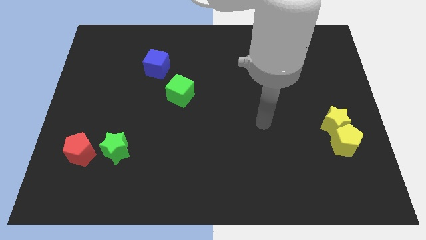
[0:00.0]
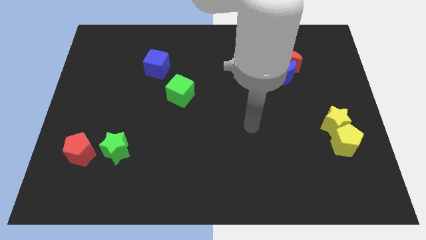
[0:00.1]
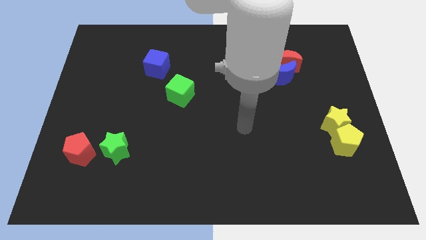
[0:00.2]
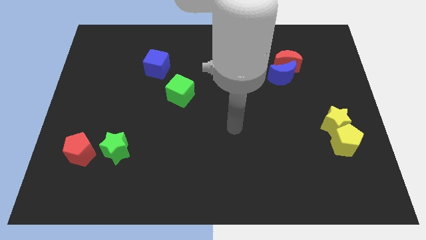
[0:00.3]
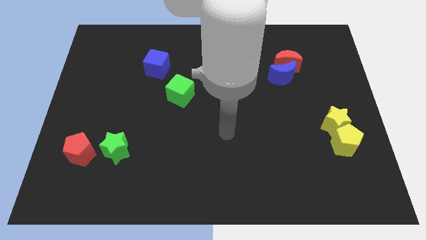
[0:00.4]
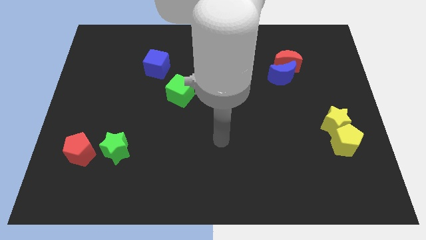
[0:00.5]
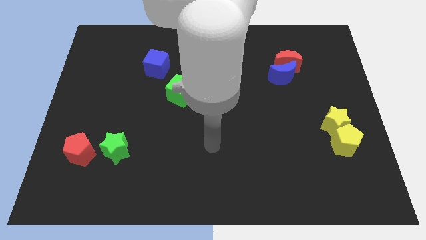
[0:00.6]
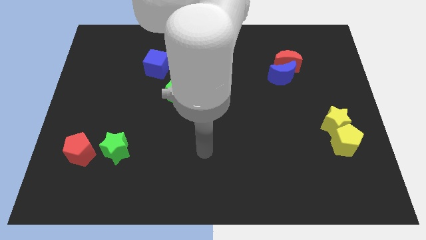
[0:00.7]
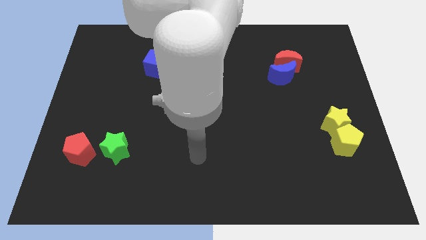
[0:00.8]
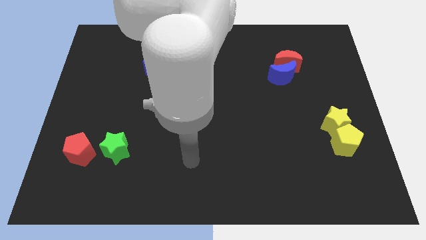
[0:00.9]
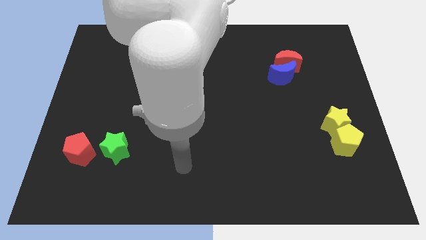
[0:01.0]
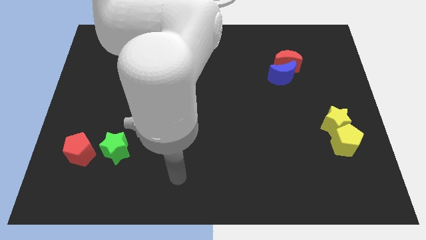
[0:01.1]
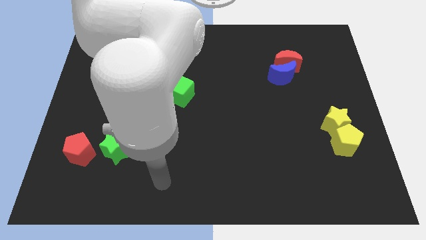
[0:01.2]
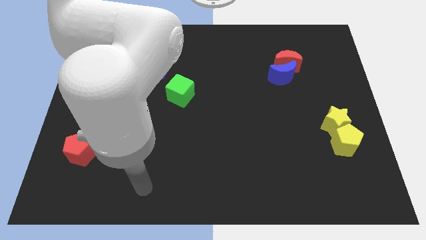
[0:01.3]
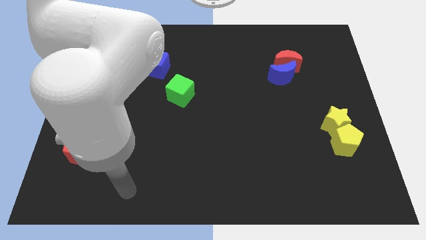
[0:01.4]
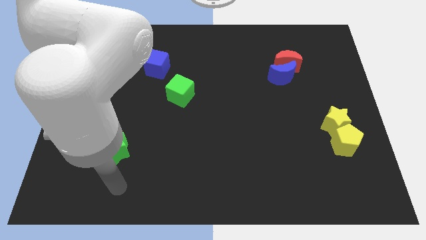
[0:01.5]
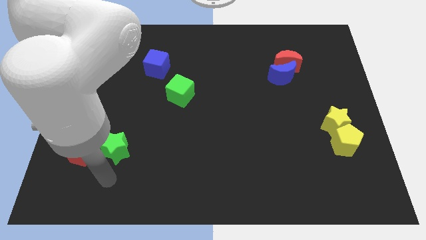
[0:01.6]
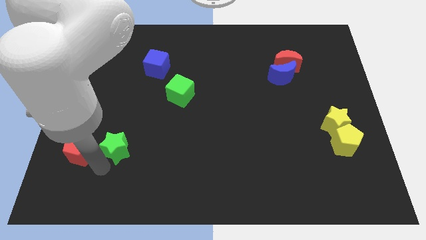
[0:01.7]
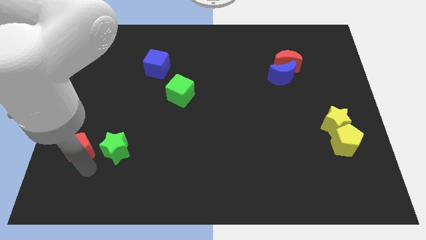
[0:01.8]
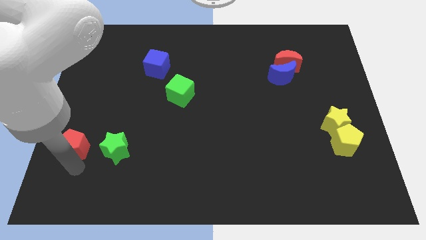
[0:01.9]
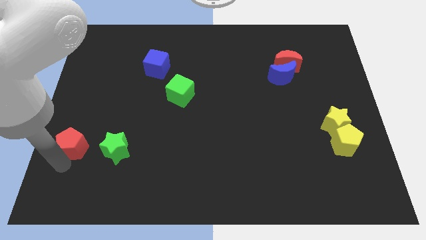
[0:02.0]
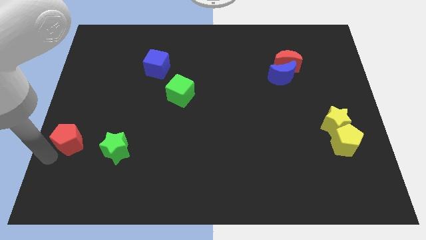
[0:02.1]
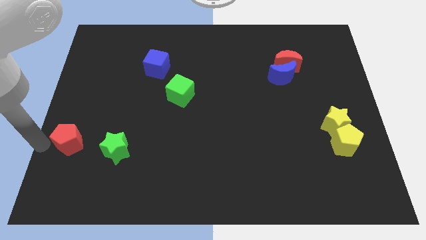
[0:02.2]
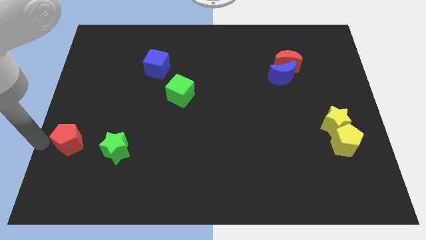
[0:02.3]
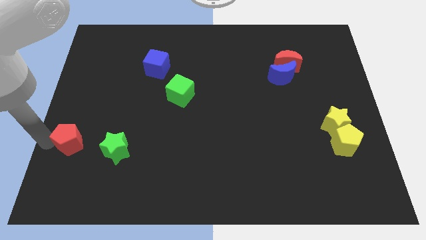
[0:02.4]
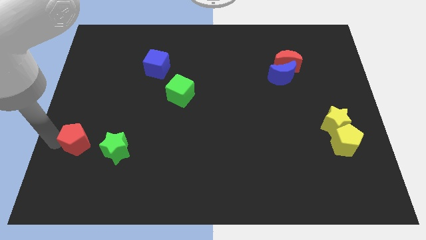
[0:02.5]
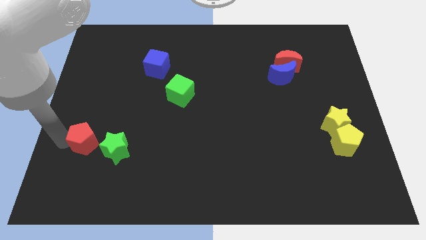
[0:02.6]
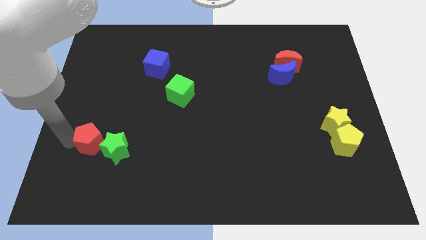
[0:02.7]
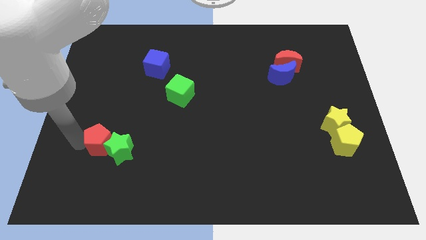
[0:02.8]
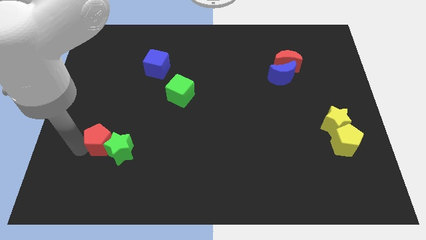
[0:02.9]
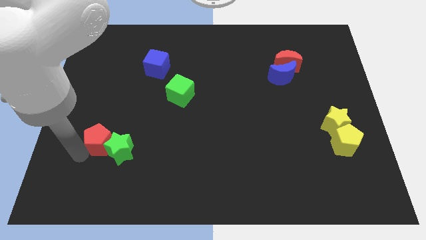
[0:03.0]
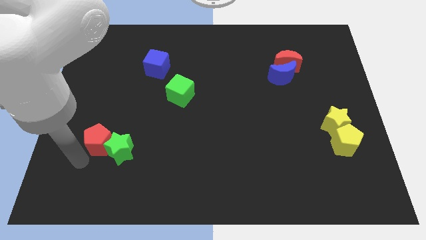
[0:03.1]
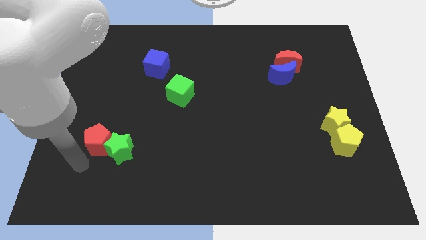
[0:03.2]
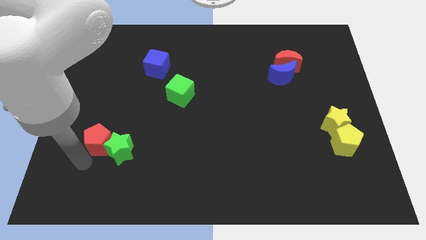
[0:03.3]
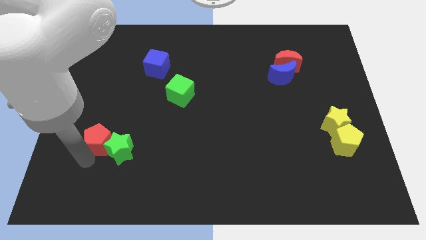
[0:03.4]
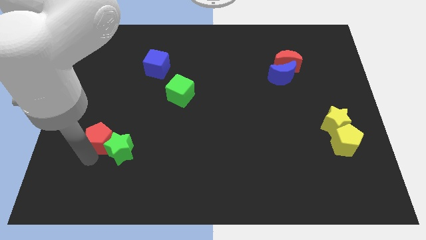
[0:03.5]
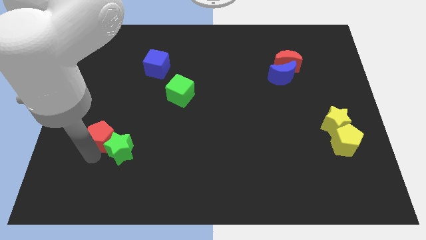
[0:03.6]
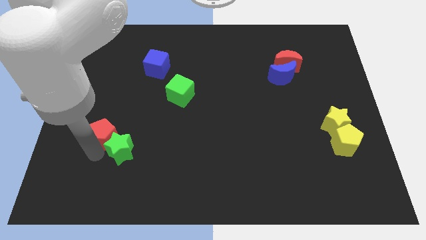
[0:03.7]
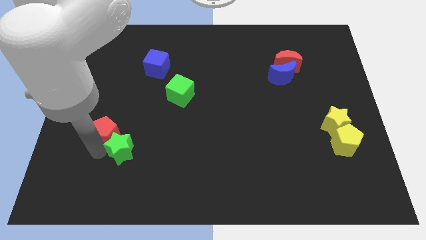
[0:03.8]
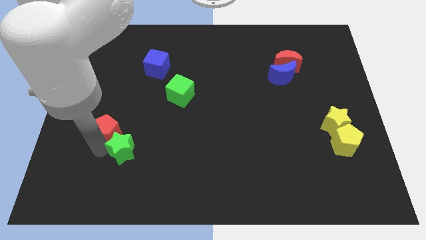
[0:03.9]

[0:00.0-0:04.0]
push the red pentagon a little diagonally upwards and to the right

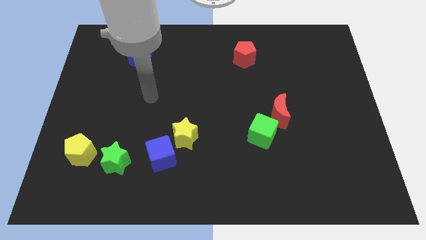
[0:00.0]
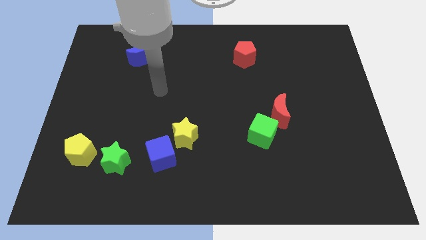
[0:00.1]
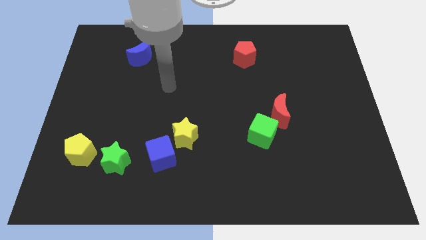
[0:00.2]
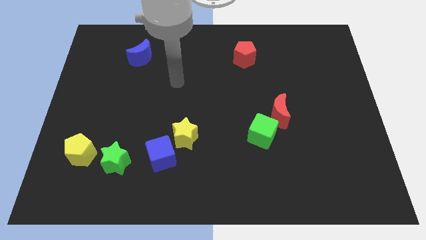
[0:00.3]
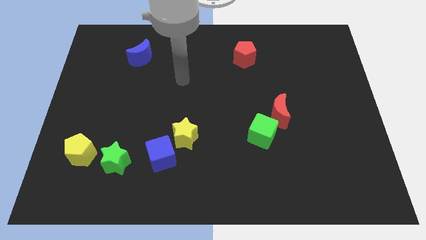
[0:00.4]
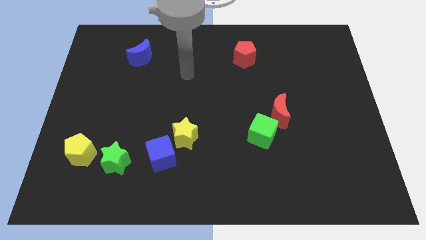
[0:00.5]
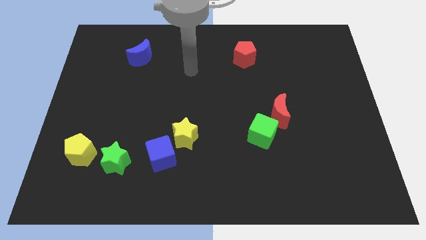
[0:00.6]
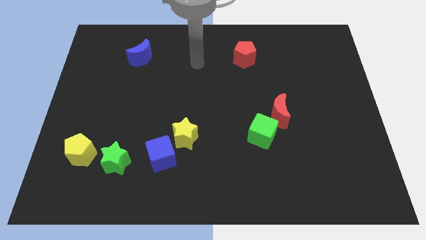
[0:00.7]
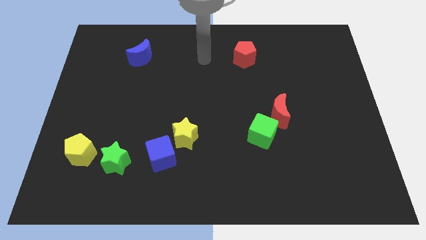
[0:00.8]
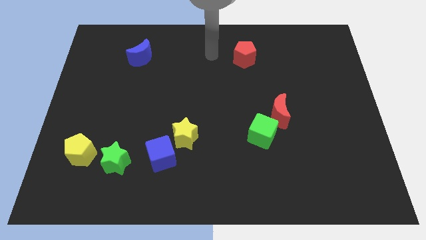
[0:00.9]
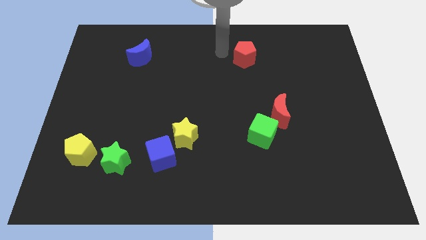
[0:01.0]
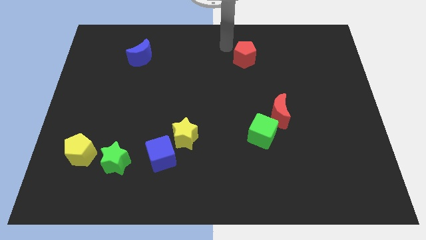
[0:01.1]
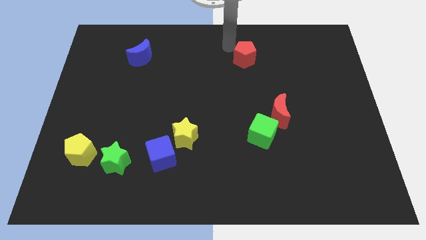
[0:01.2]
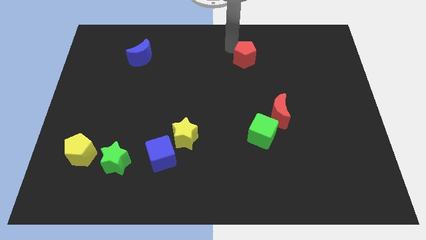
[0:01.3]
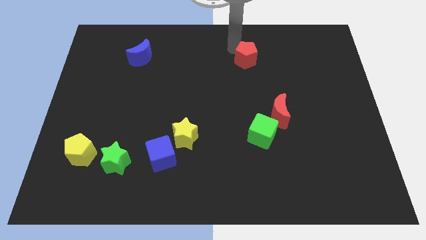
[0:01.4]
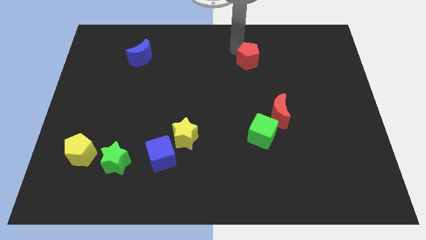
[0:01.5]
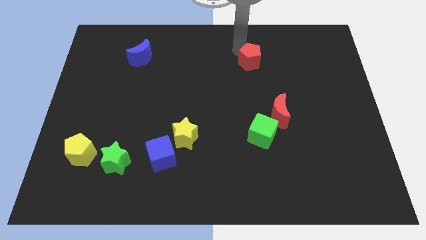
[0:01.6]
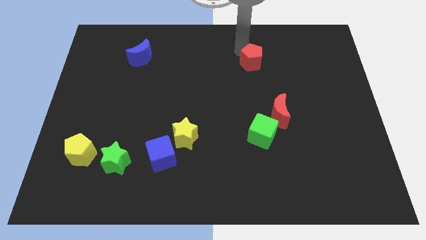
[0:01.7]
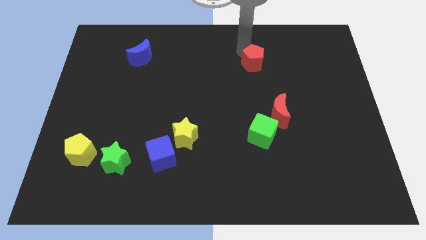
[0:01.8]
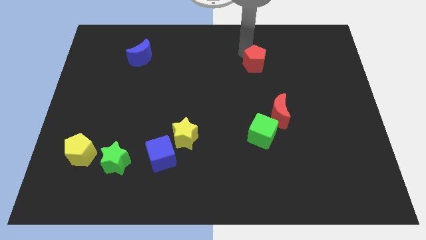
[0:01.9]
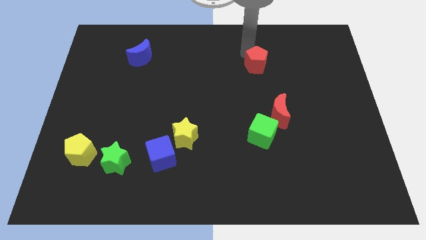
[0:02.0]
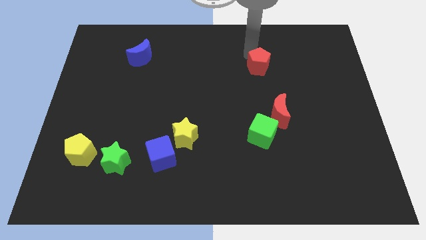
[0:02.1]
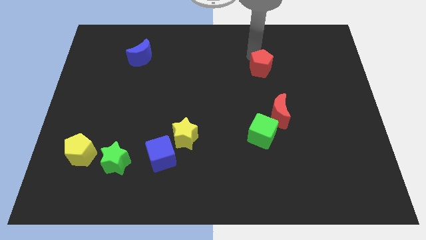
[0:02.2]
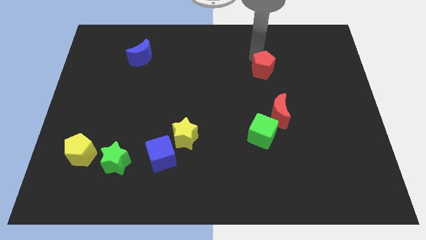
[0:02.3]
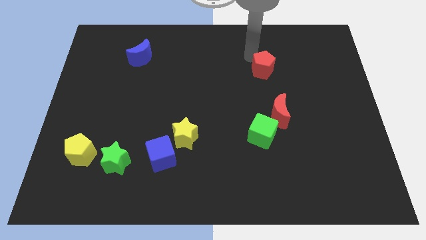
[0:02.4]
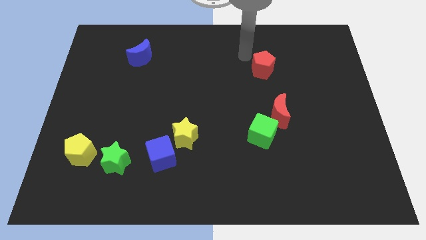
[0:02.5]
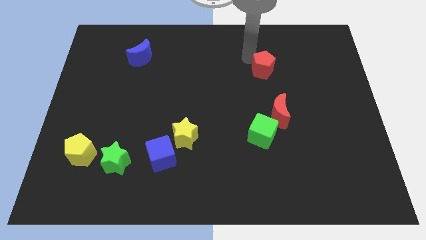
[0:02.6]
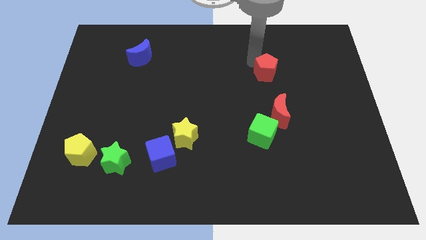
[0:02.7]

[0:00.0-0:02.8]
push the red pentagon diagonally downwards and right somewhat

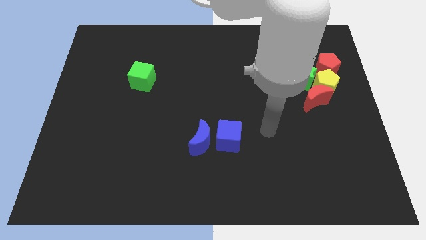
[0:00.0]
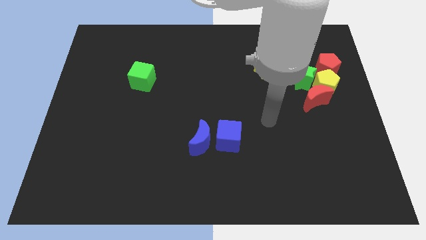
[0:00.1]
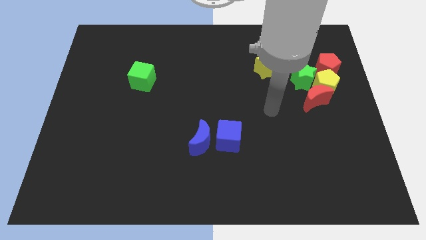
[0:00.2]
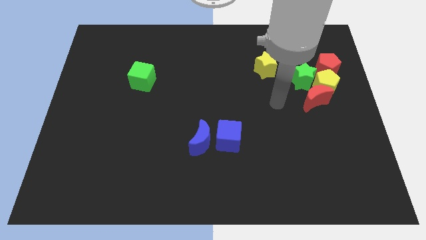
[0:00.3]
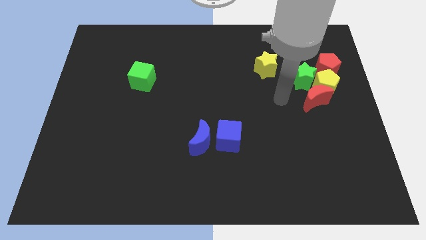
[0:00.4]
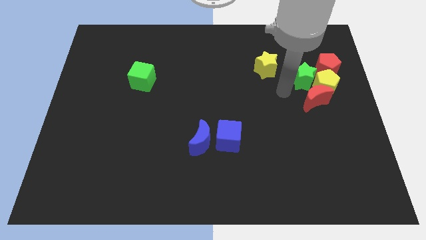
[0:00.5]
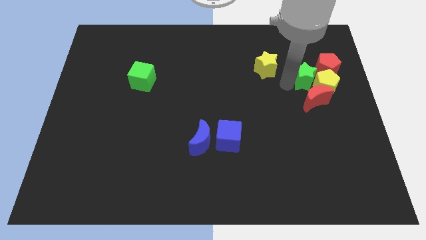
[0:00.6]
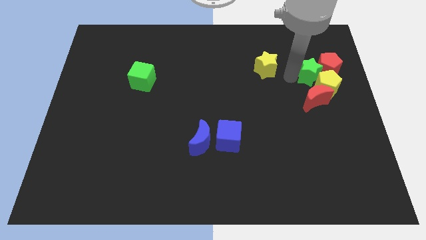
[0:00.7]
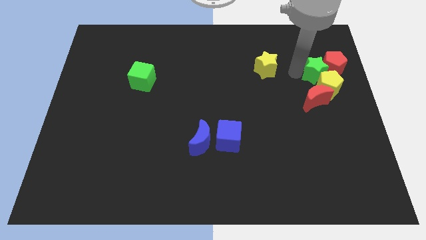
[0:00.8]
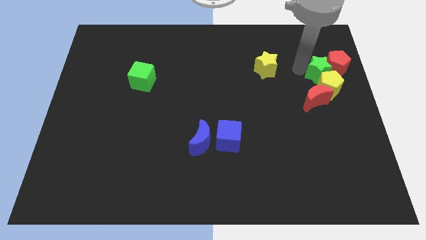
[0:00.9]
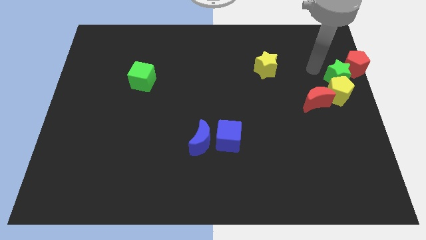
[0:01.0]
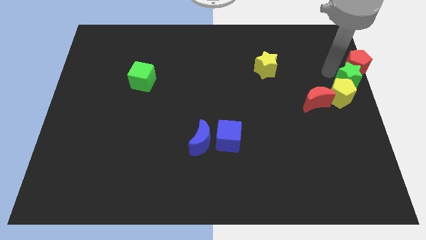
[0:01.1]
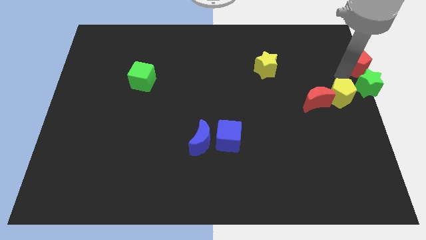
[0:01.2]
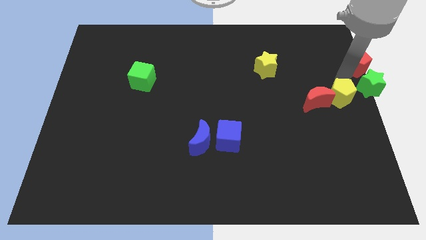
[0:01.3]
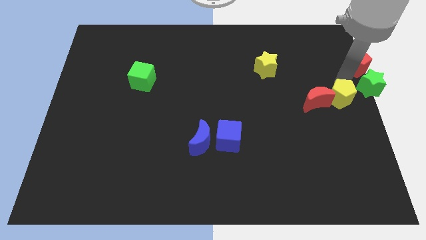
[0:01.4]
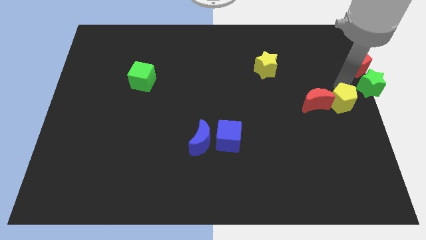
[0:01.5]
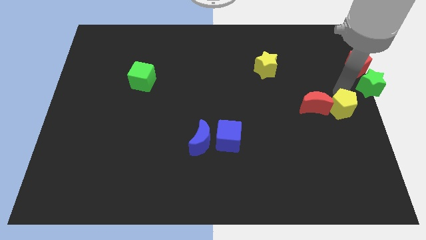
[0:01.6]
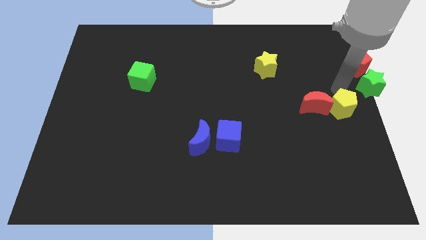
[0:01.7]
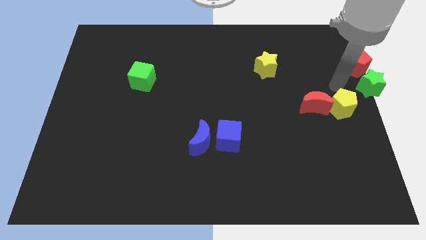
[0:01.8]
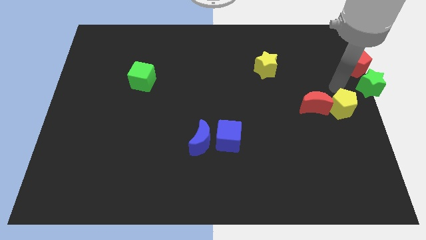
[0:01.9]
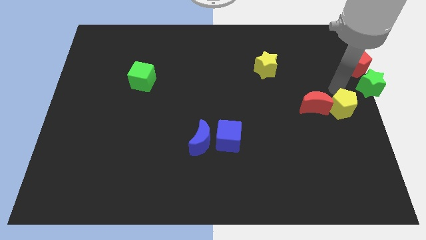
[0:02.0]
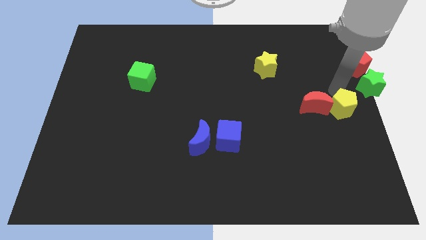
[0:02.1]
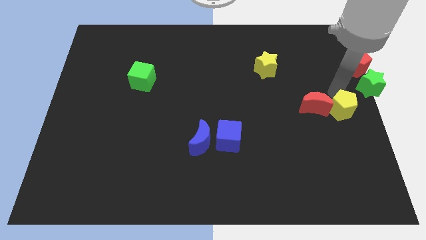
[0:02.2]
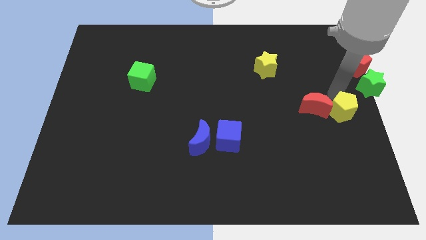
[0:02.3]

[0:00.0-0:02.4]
move the yellow pentagon down somewhat
